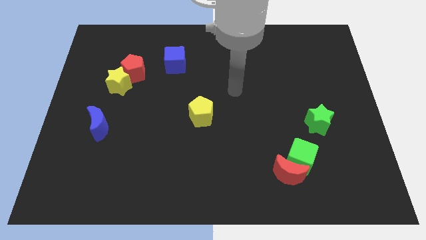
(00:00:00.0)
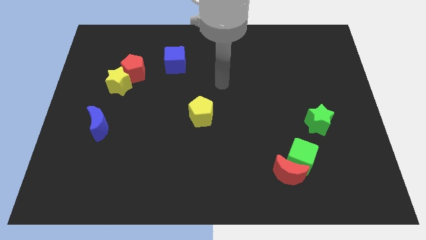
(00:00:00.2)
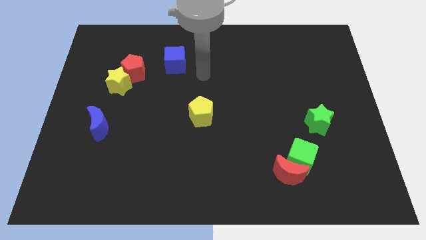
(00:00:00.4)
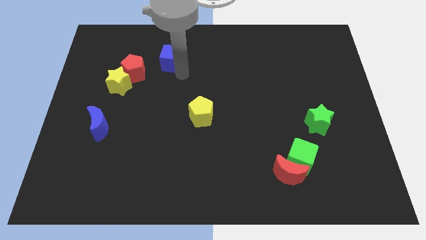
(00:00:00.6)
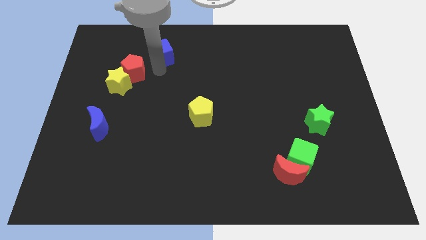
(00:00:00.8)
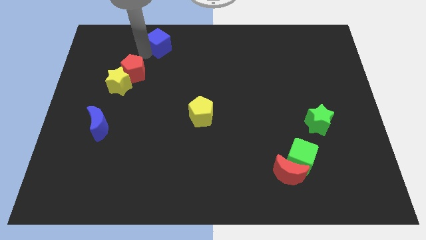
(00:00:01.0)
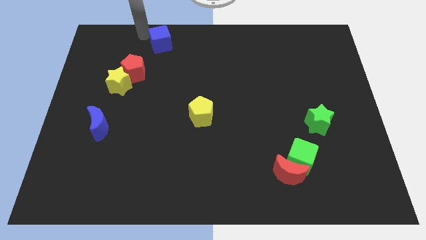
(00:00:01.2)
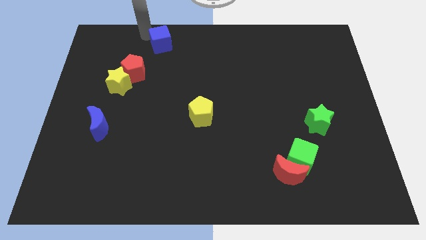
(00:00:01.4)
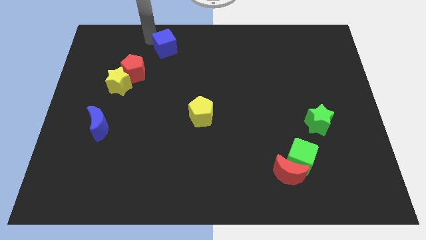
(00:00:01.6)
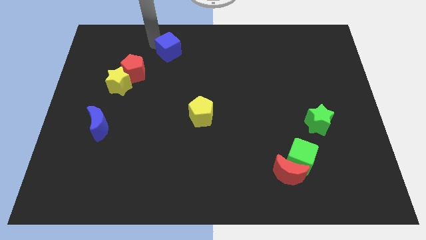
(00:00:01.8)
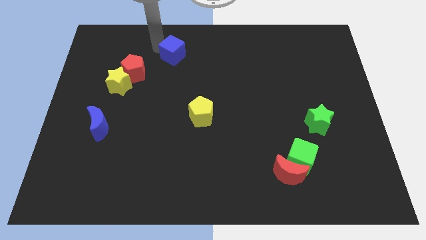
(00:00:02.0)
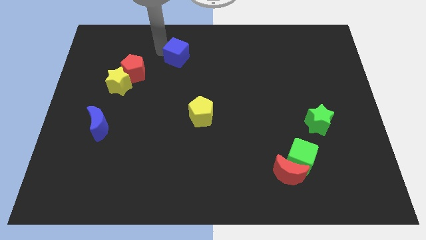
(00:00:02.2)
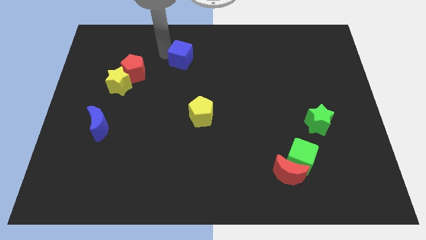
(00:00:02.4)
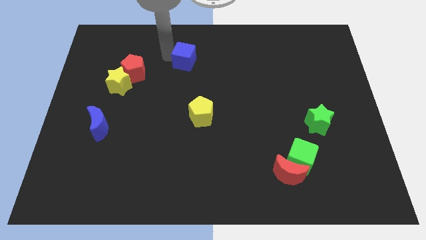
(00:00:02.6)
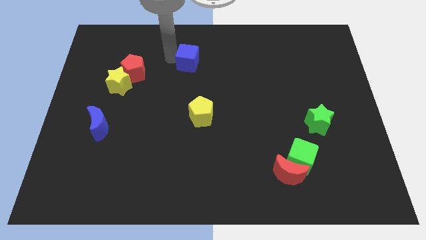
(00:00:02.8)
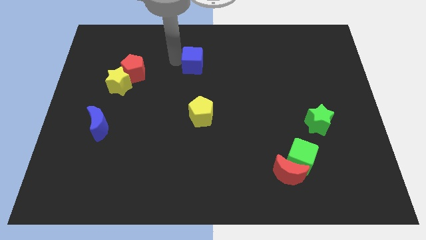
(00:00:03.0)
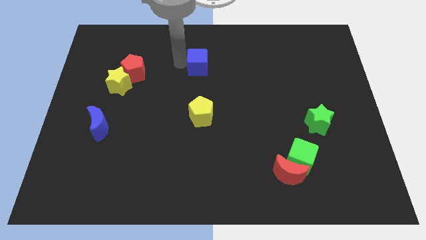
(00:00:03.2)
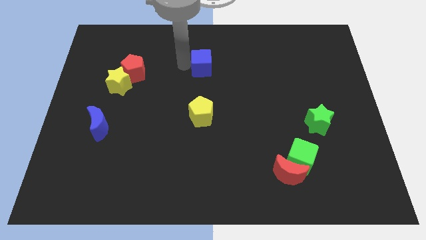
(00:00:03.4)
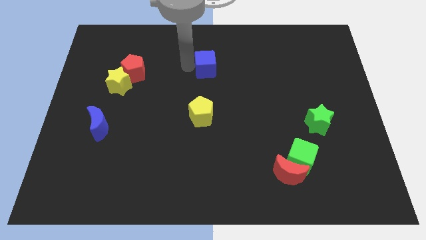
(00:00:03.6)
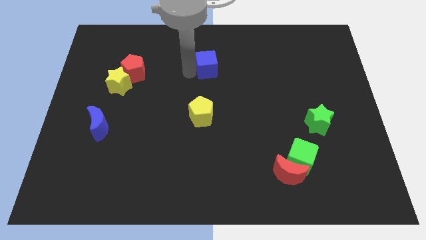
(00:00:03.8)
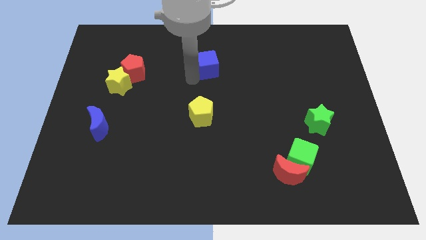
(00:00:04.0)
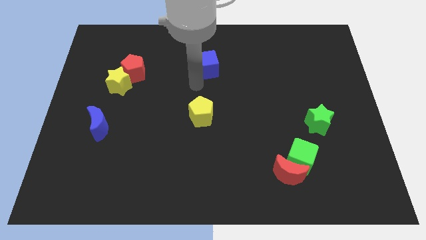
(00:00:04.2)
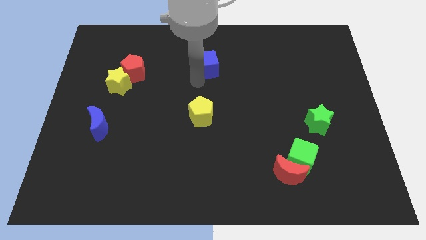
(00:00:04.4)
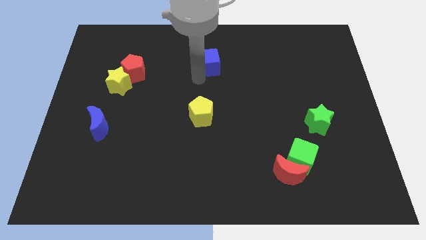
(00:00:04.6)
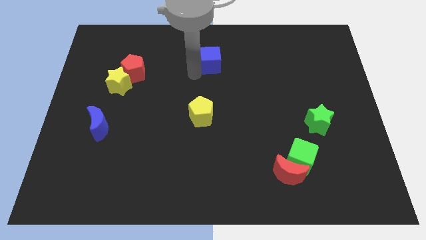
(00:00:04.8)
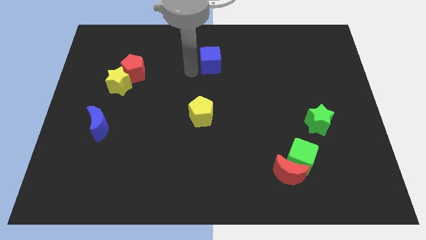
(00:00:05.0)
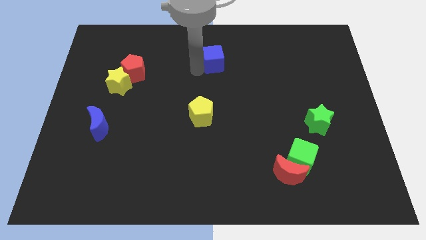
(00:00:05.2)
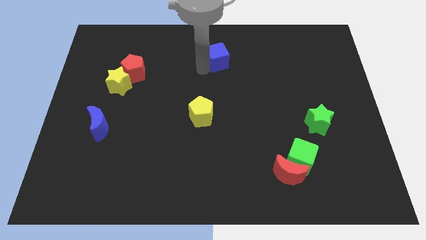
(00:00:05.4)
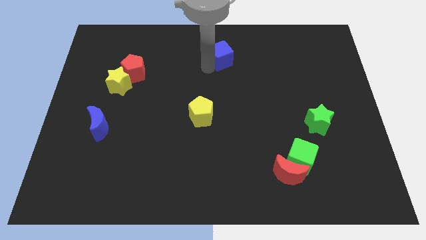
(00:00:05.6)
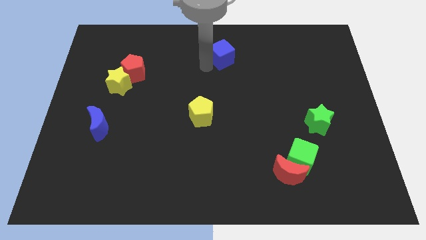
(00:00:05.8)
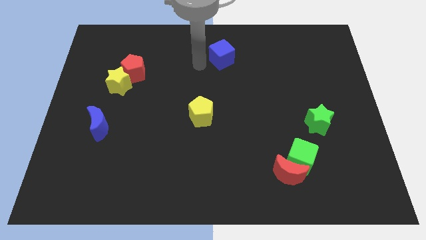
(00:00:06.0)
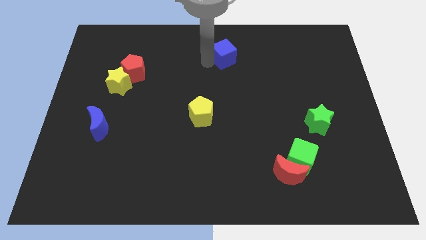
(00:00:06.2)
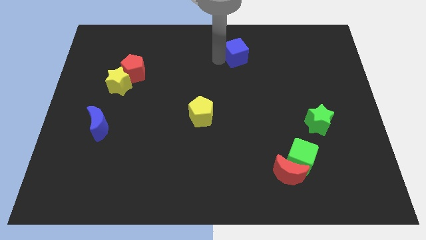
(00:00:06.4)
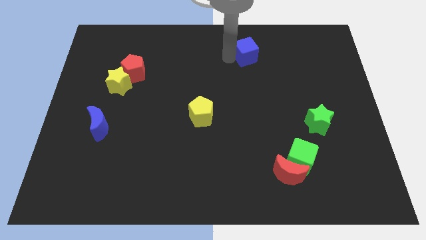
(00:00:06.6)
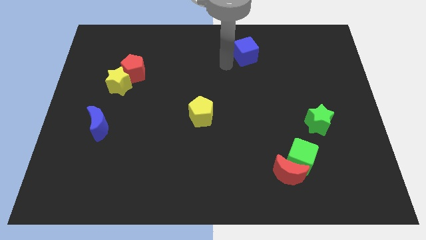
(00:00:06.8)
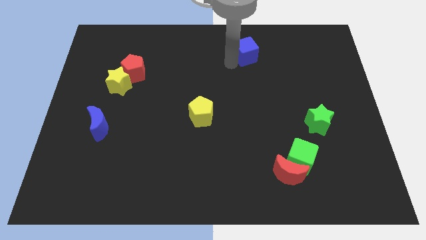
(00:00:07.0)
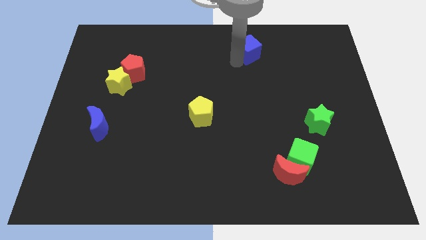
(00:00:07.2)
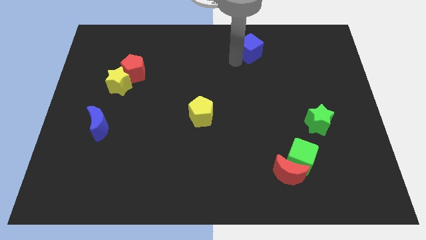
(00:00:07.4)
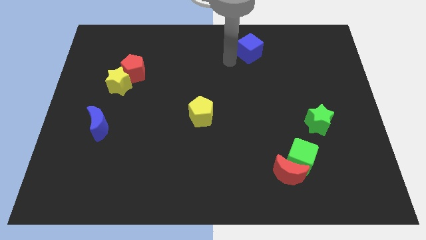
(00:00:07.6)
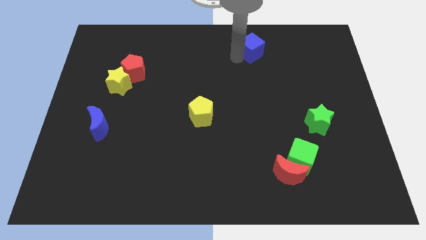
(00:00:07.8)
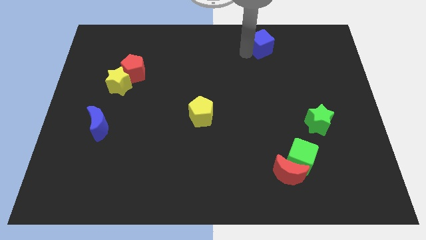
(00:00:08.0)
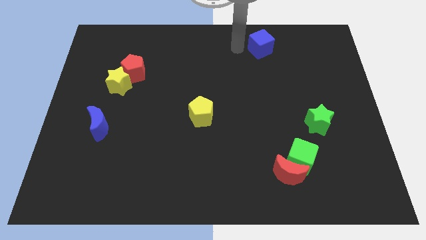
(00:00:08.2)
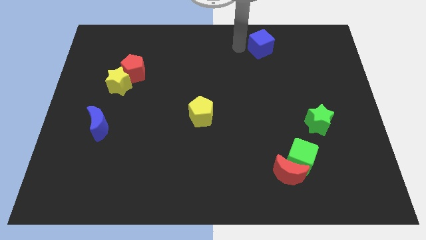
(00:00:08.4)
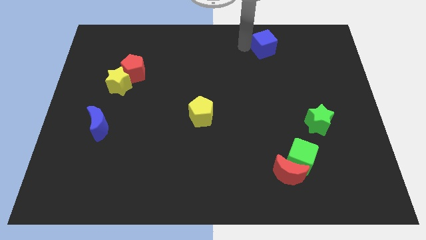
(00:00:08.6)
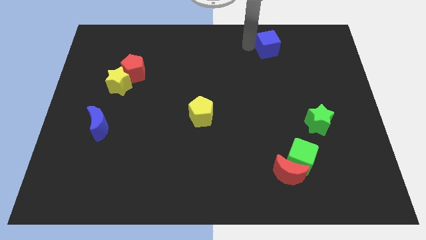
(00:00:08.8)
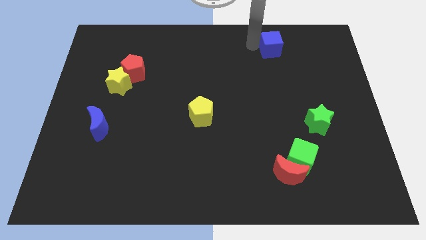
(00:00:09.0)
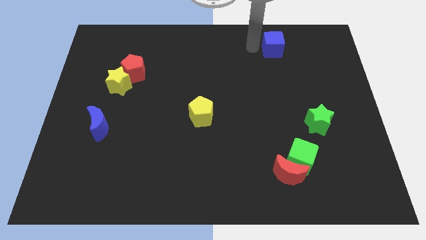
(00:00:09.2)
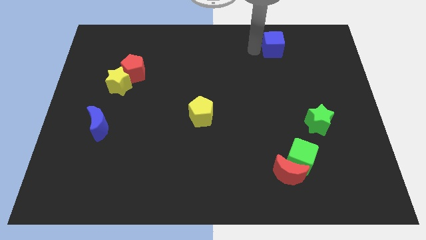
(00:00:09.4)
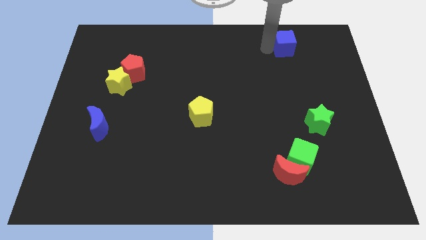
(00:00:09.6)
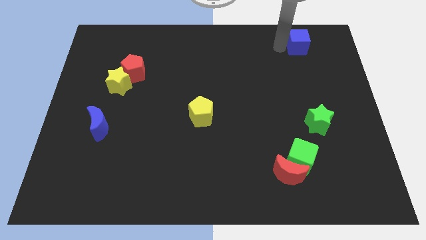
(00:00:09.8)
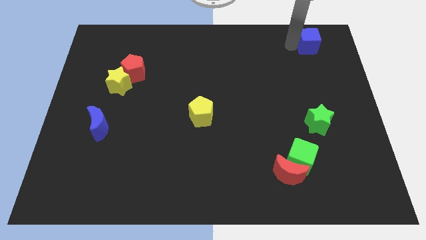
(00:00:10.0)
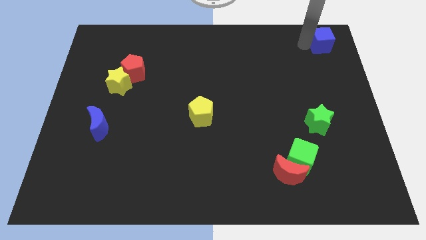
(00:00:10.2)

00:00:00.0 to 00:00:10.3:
put the blue cube to the top right

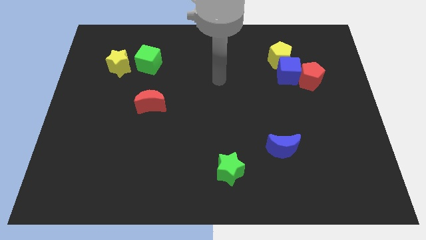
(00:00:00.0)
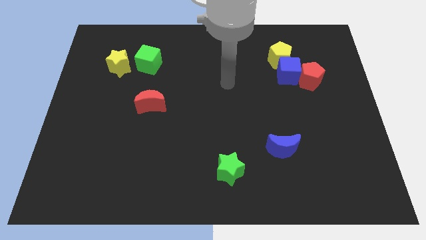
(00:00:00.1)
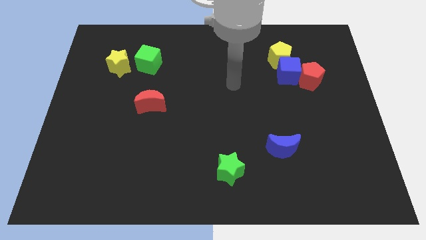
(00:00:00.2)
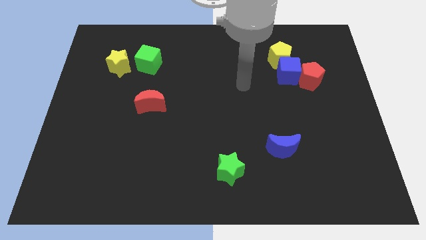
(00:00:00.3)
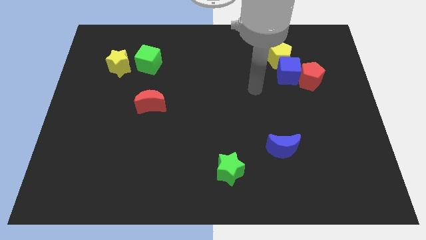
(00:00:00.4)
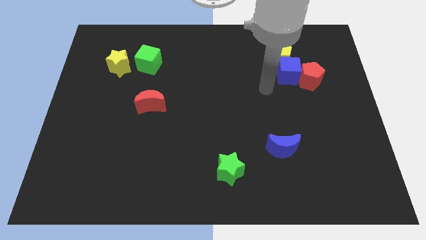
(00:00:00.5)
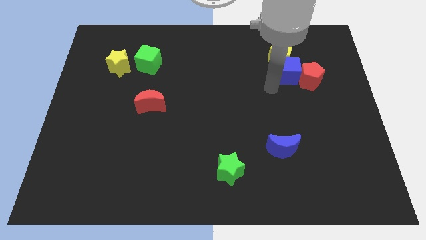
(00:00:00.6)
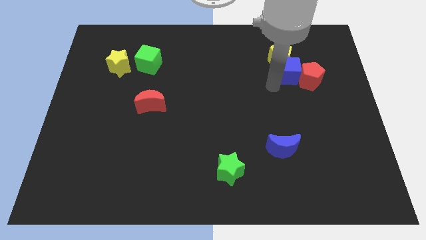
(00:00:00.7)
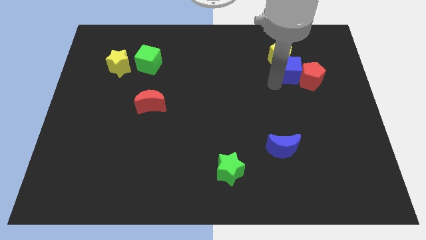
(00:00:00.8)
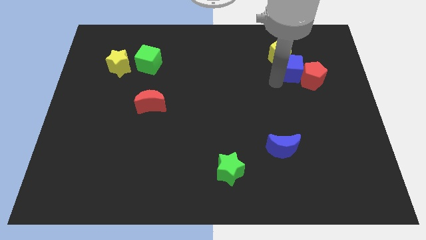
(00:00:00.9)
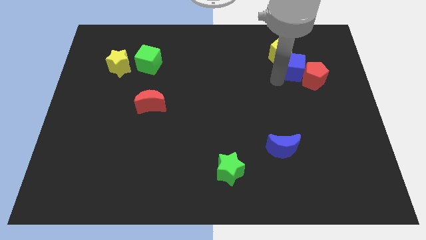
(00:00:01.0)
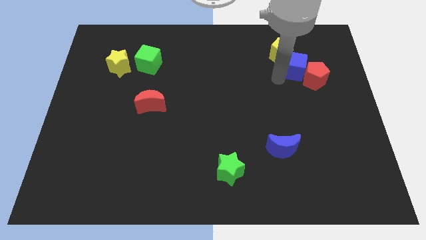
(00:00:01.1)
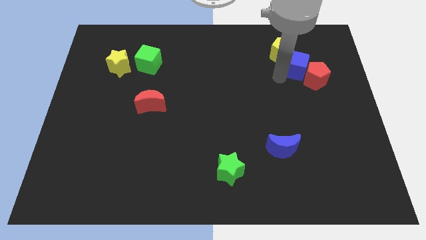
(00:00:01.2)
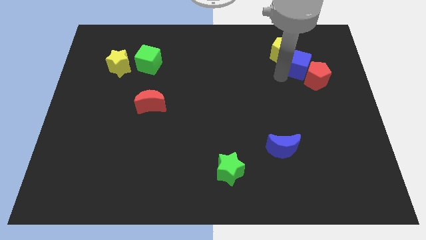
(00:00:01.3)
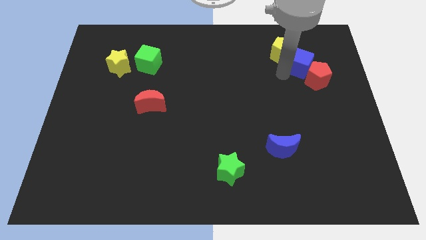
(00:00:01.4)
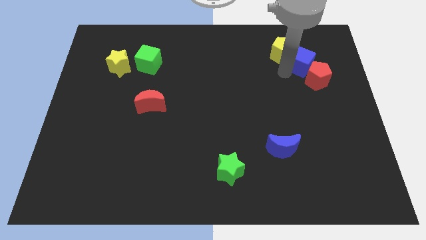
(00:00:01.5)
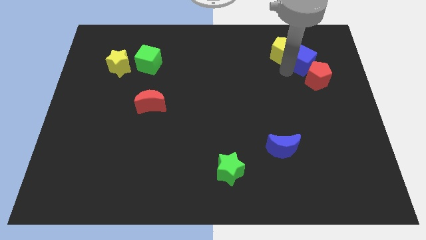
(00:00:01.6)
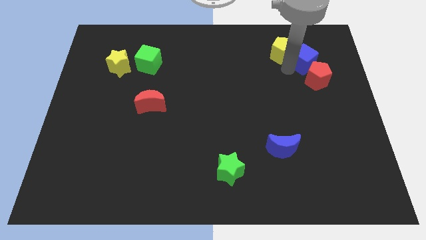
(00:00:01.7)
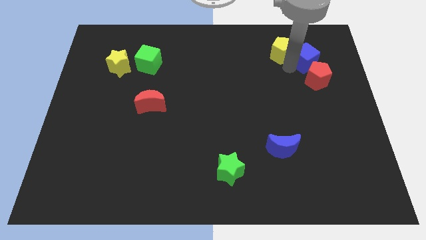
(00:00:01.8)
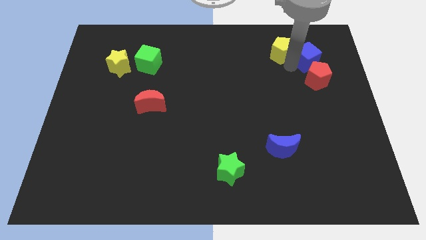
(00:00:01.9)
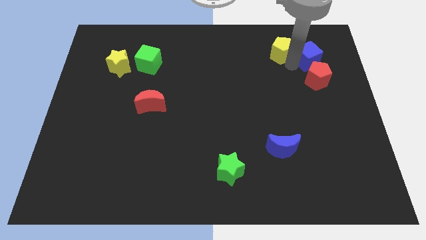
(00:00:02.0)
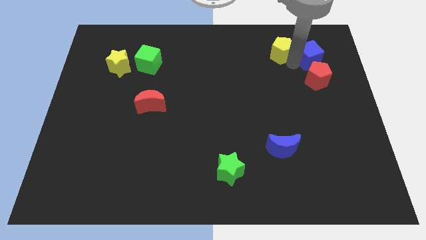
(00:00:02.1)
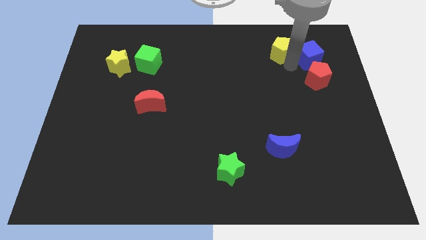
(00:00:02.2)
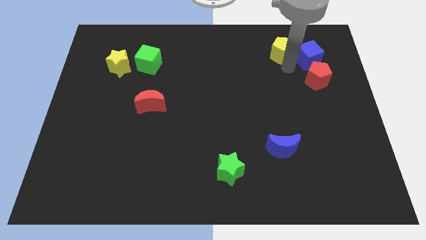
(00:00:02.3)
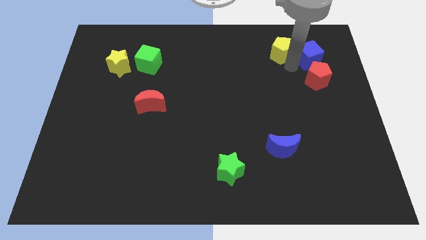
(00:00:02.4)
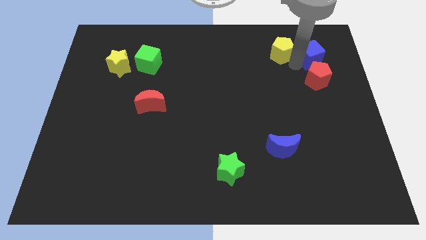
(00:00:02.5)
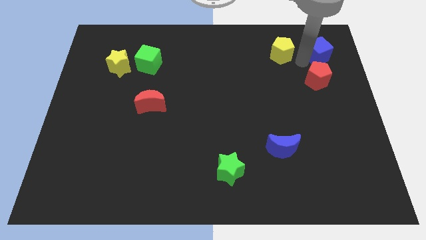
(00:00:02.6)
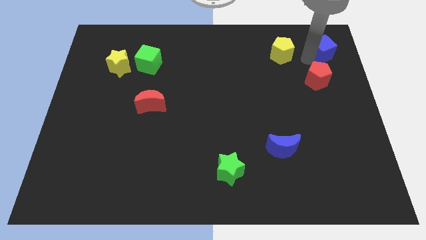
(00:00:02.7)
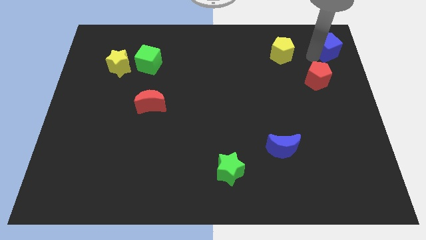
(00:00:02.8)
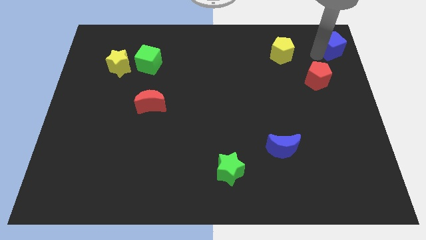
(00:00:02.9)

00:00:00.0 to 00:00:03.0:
put the blue cube to the upper right corner
